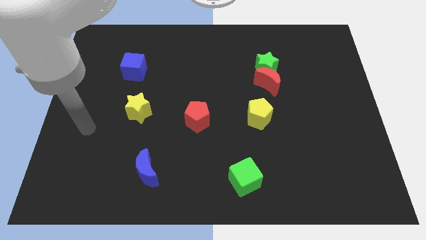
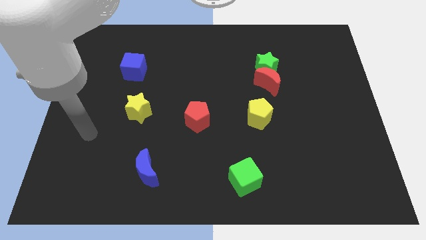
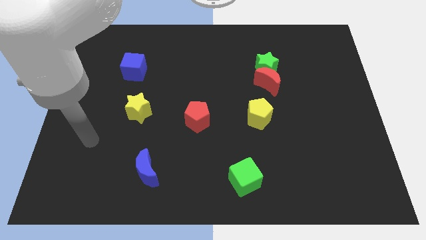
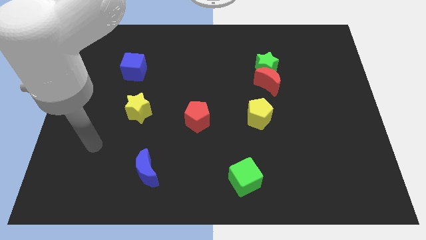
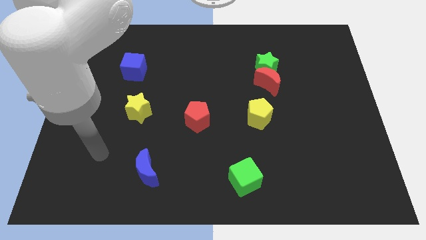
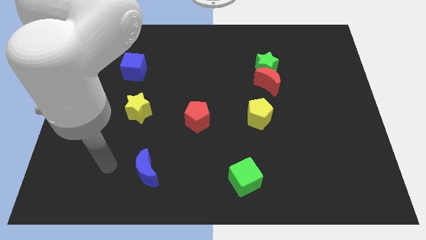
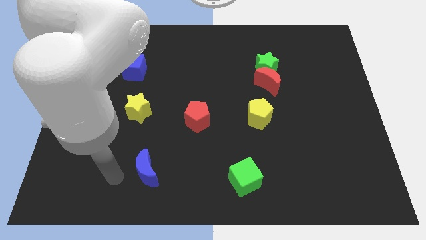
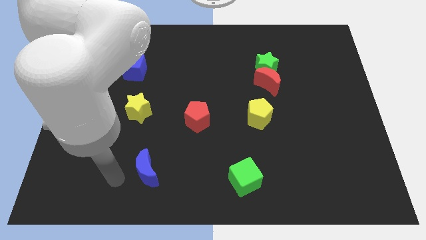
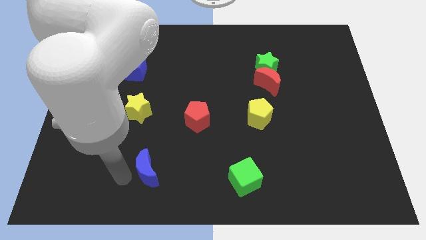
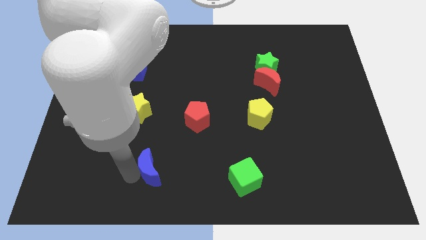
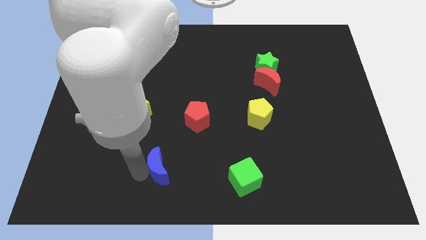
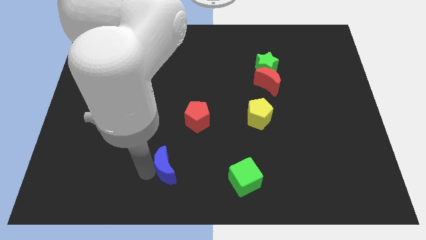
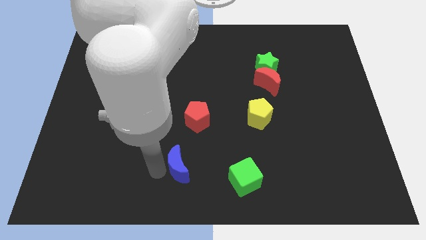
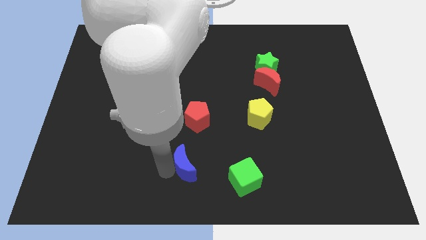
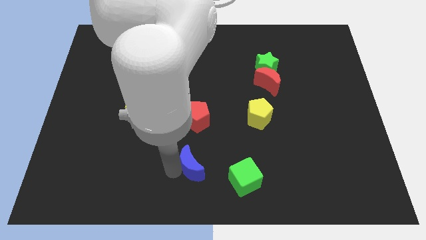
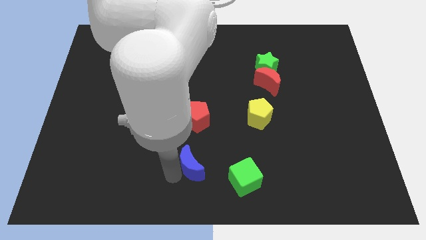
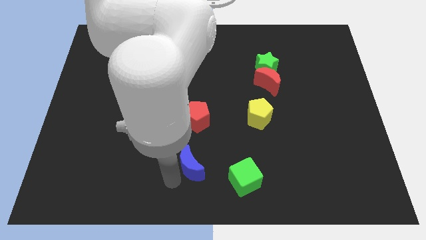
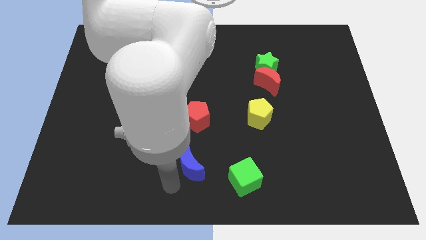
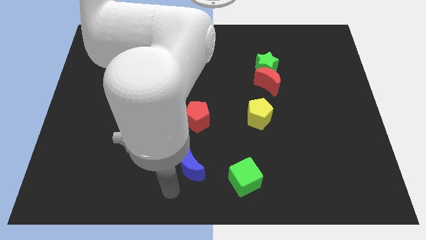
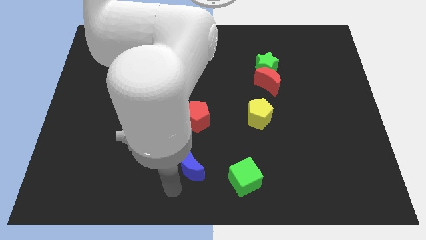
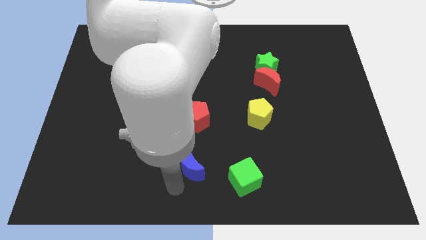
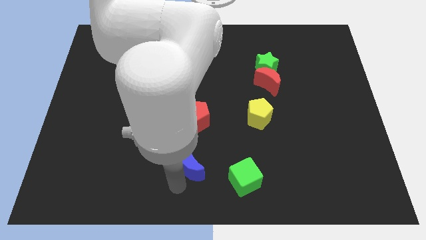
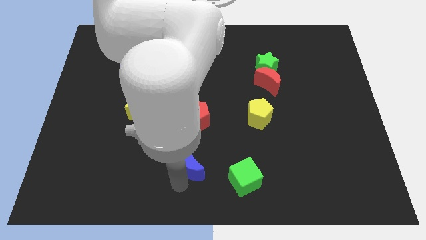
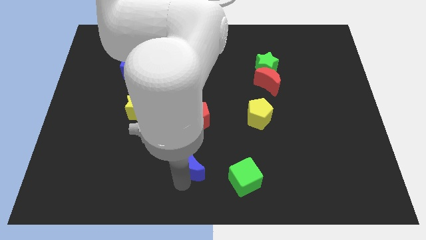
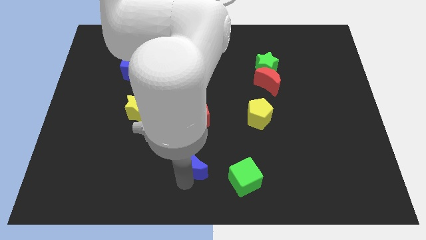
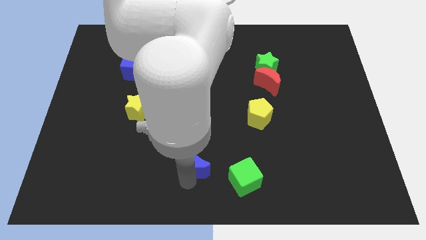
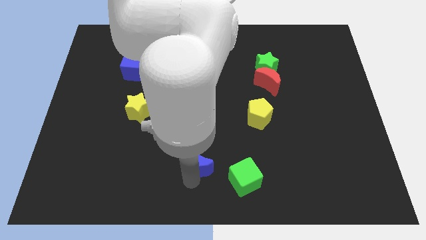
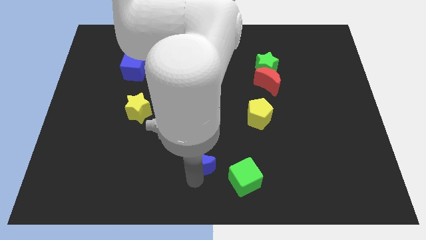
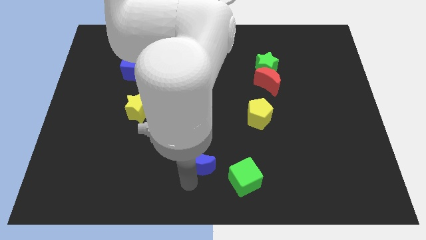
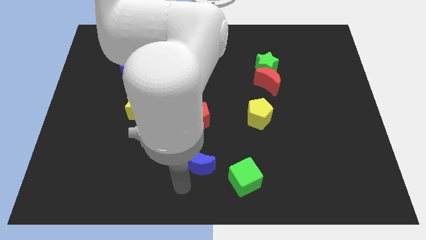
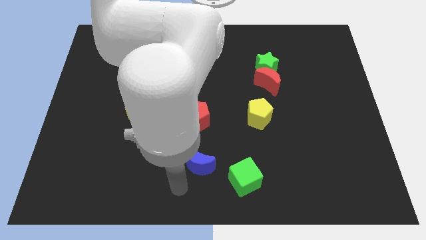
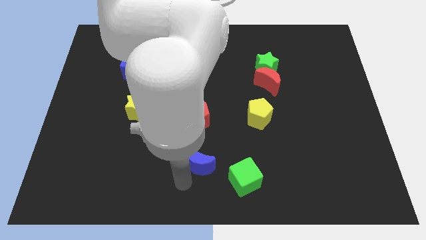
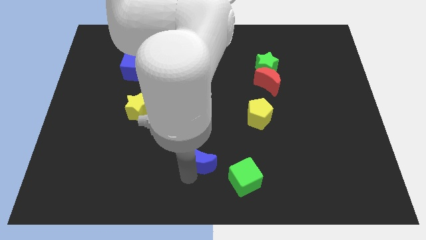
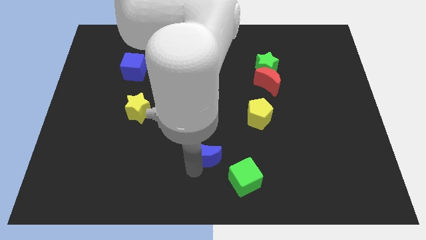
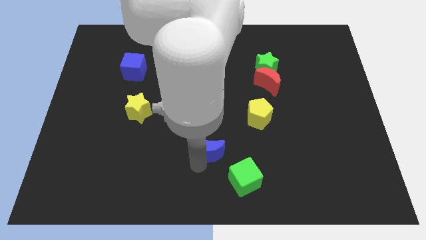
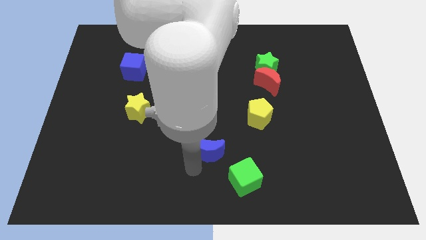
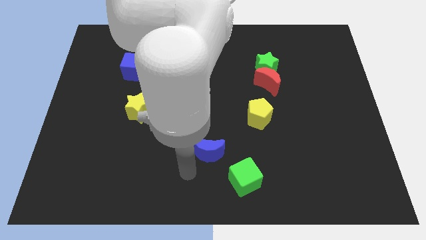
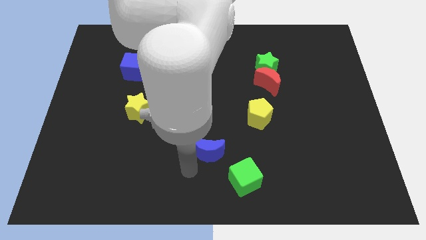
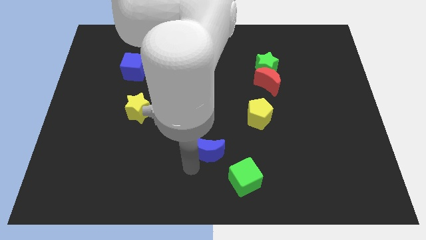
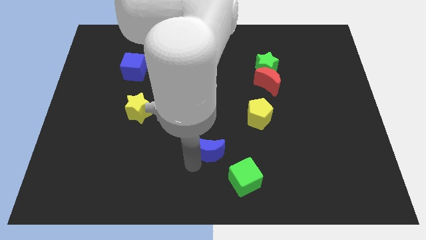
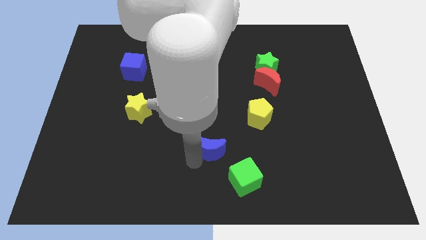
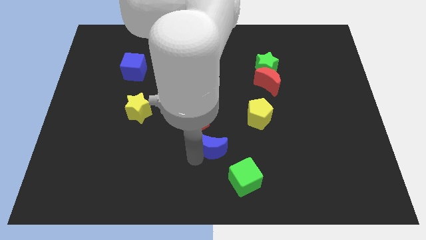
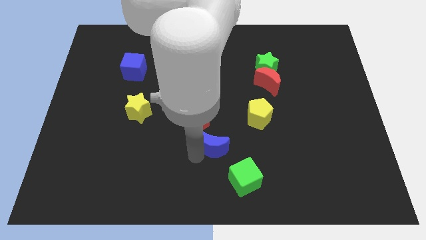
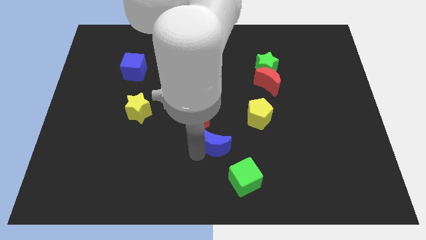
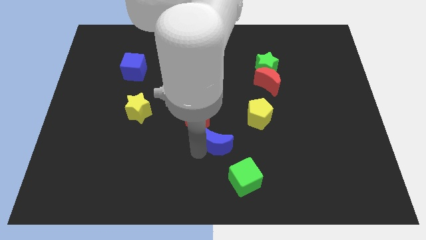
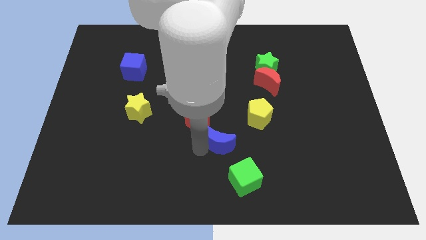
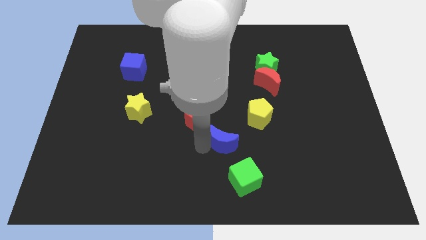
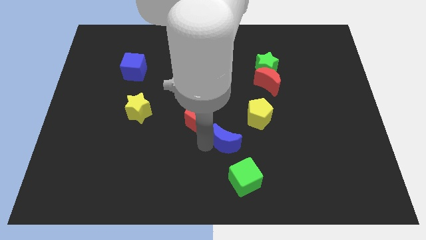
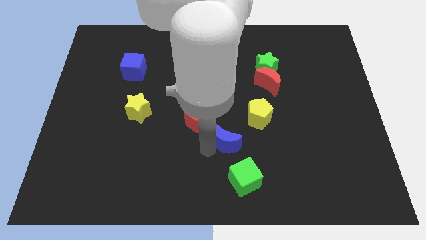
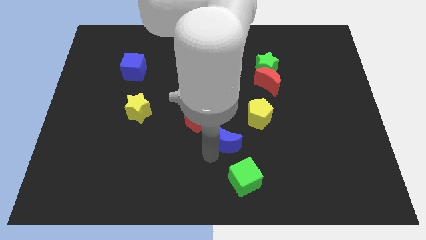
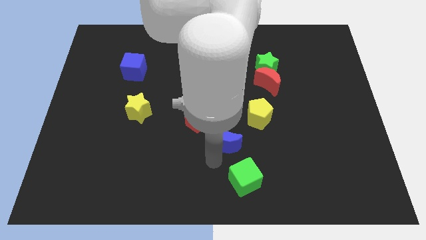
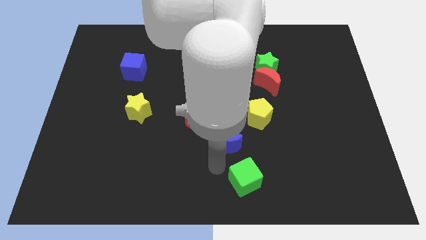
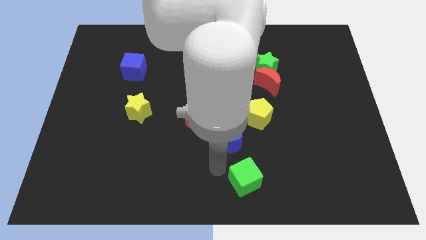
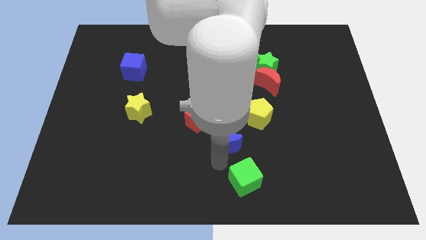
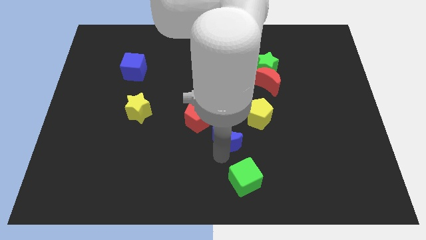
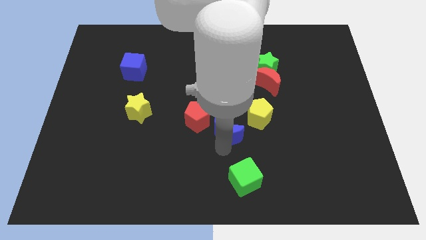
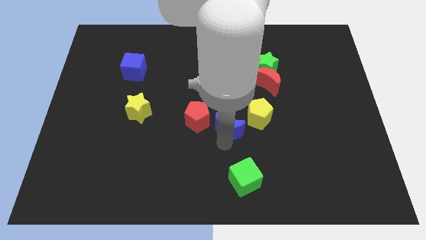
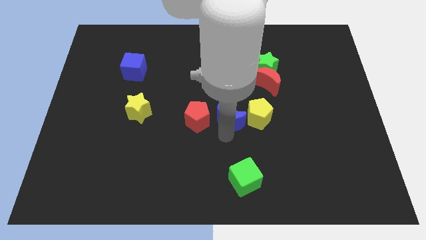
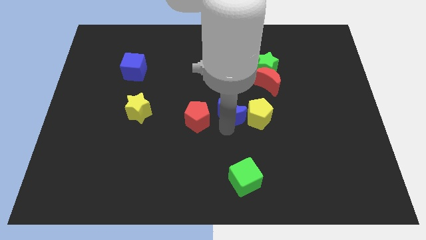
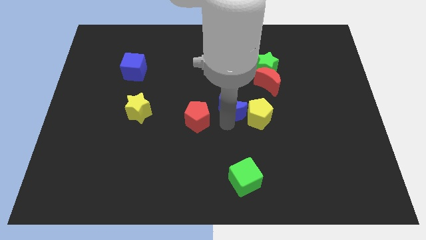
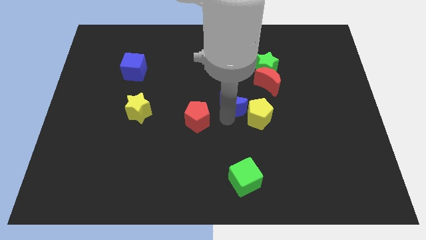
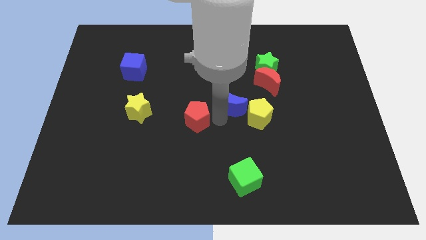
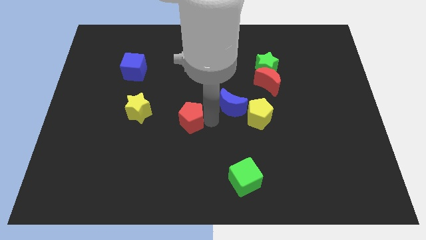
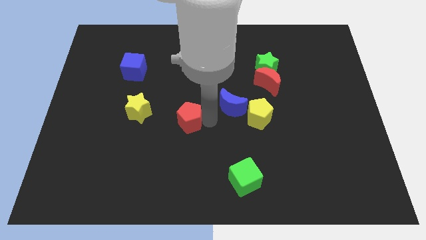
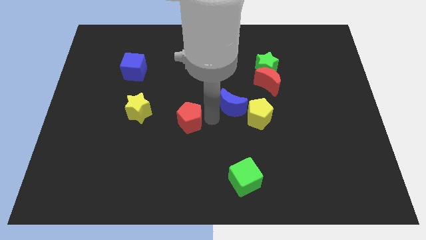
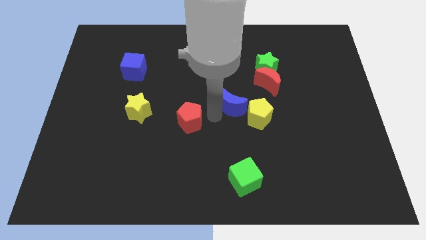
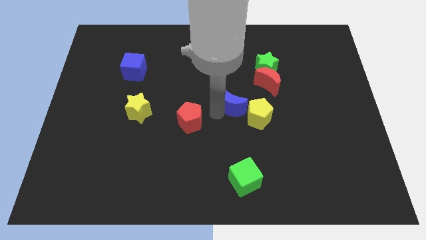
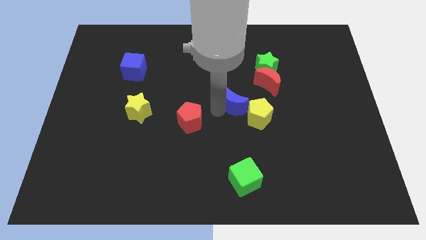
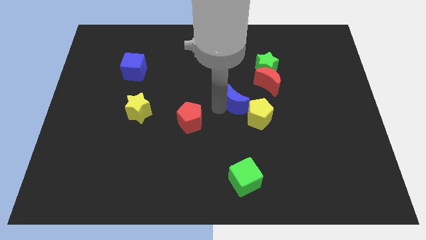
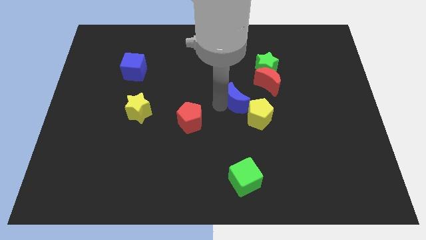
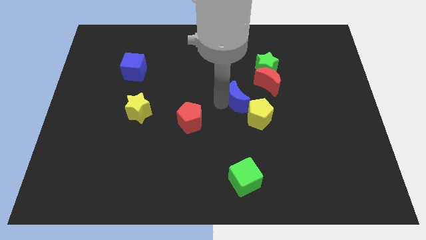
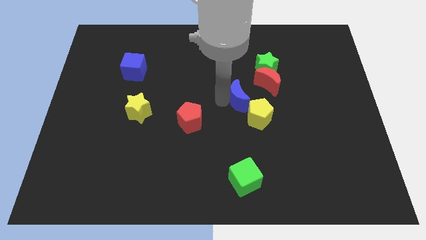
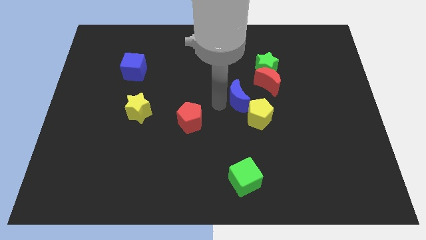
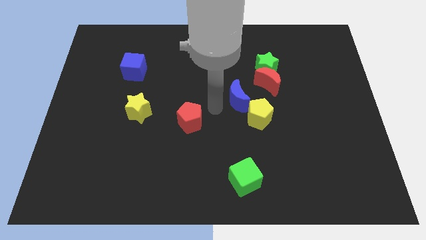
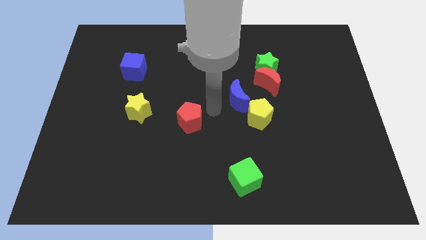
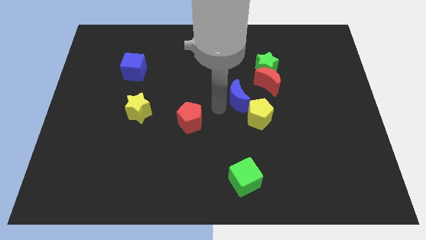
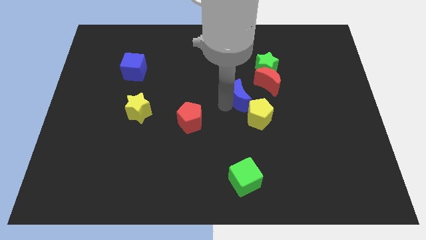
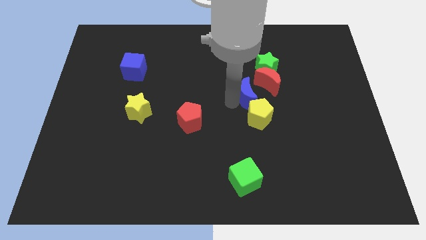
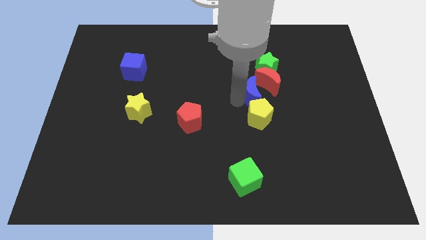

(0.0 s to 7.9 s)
move the blue moon towards the red moon
